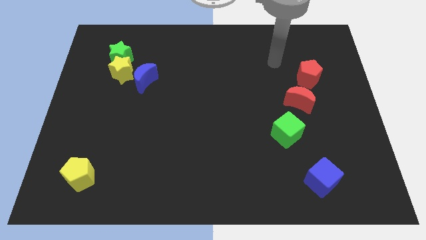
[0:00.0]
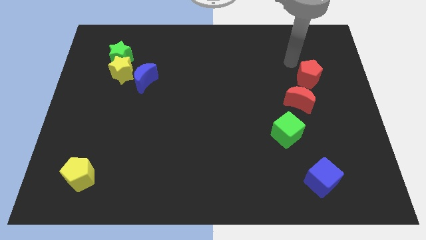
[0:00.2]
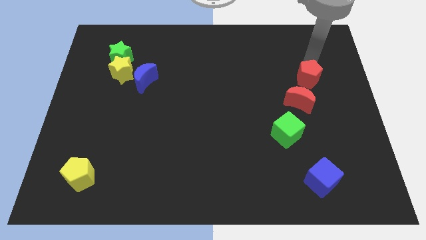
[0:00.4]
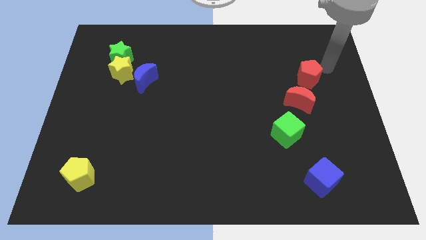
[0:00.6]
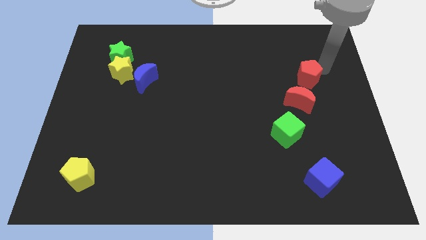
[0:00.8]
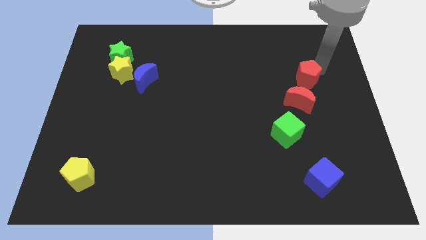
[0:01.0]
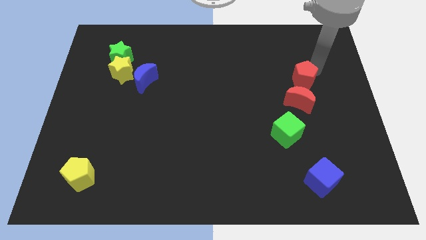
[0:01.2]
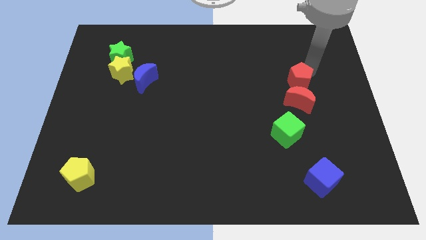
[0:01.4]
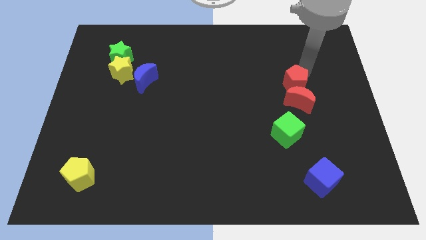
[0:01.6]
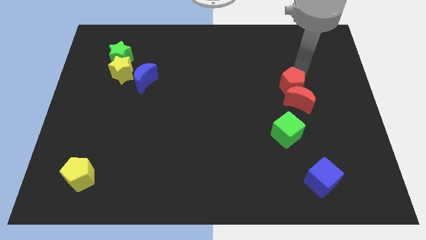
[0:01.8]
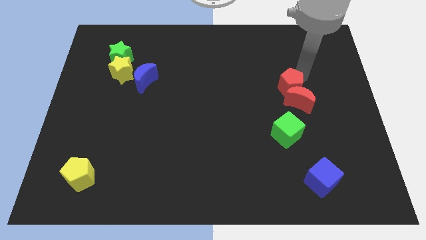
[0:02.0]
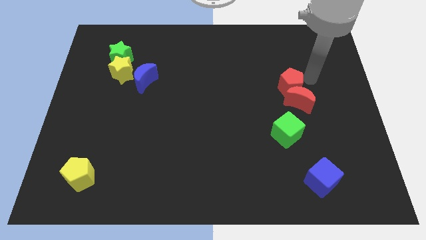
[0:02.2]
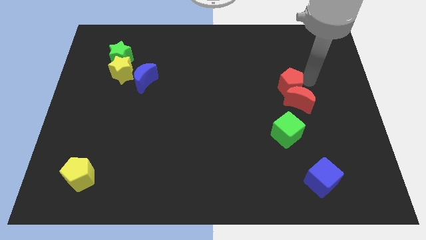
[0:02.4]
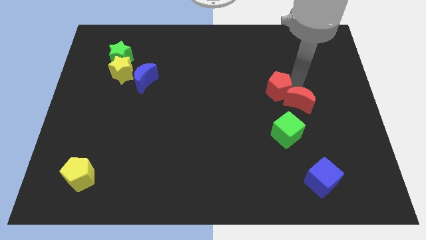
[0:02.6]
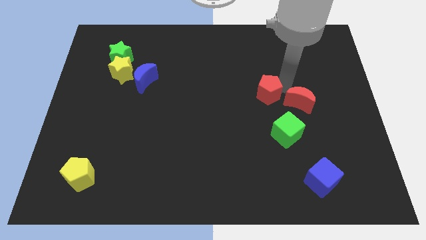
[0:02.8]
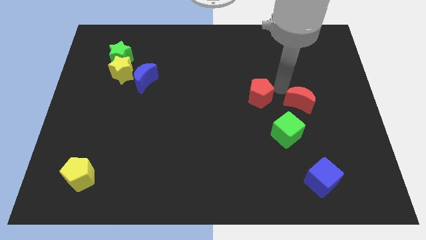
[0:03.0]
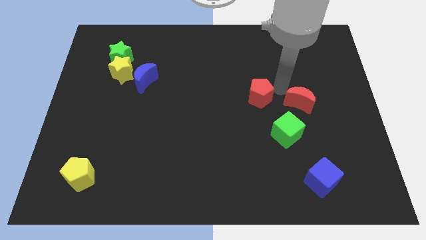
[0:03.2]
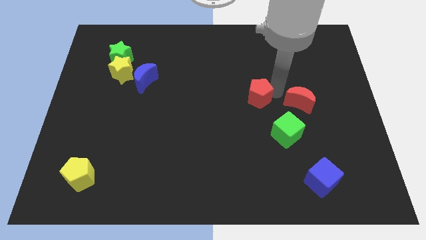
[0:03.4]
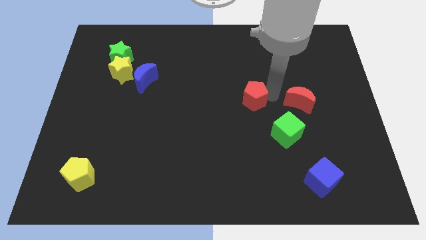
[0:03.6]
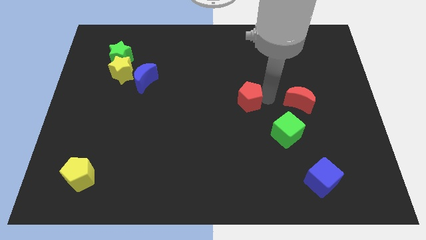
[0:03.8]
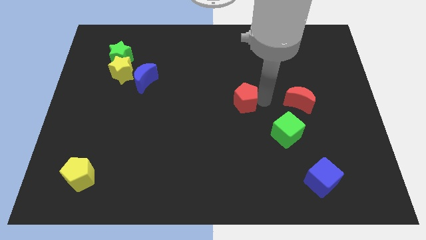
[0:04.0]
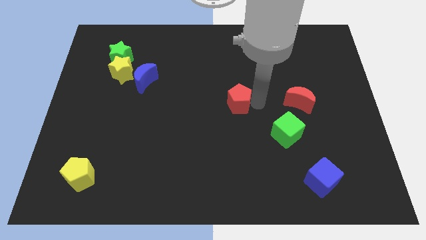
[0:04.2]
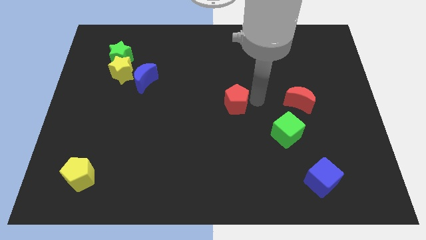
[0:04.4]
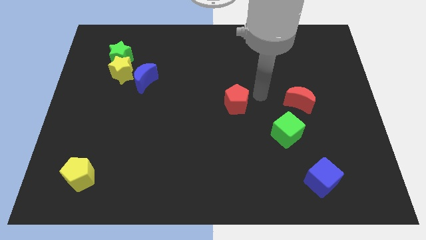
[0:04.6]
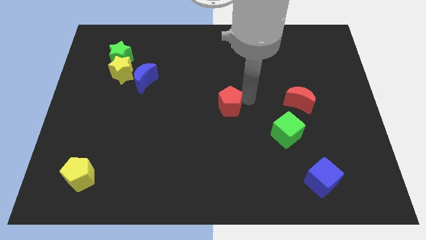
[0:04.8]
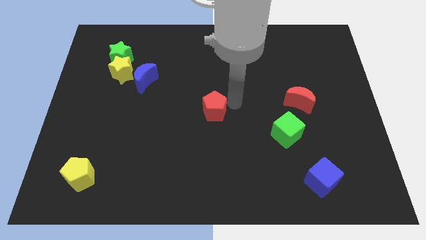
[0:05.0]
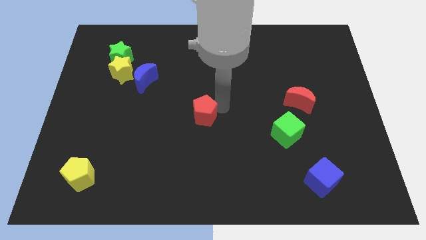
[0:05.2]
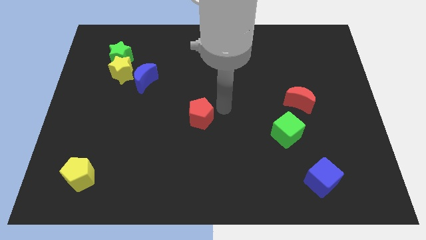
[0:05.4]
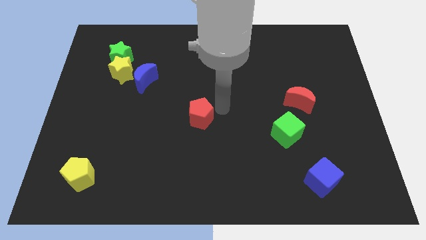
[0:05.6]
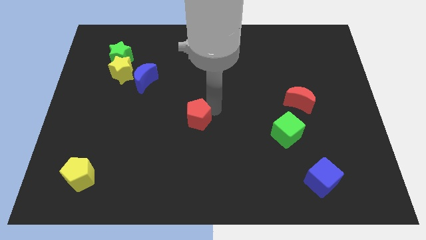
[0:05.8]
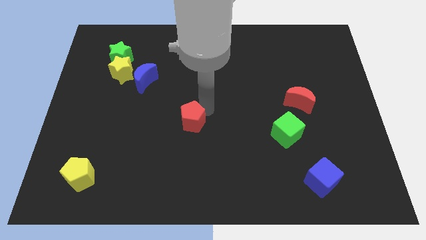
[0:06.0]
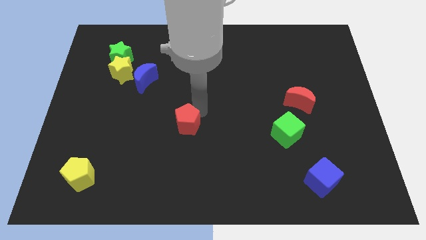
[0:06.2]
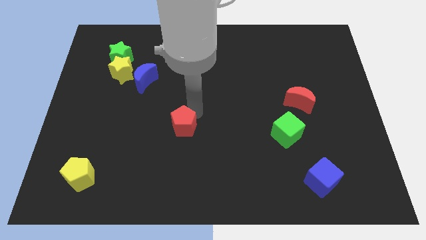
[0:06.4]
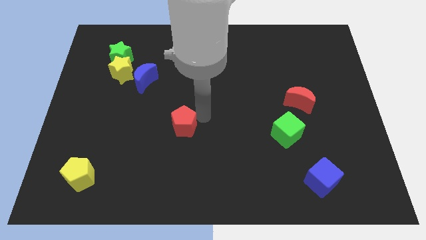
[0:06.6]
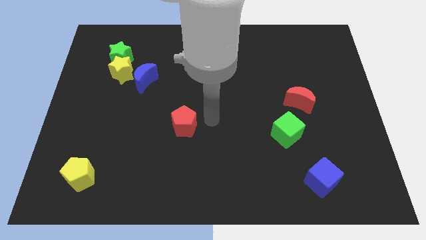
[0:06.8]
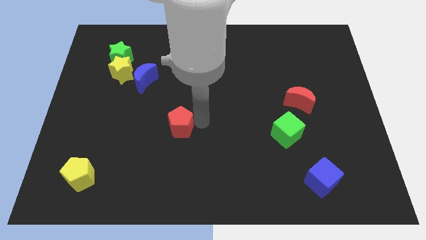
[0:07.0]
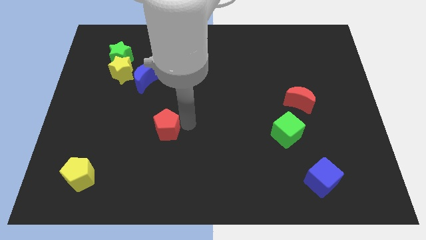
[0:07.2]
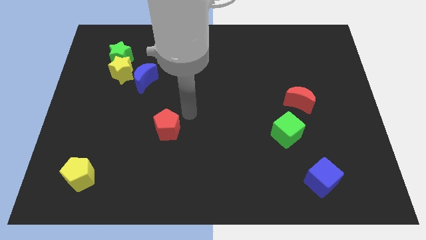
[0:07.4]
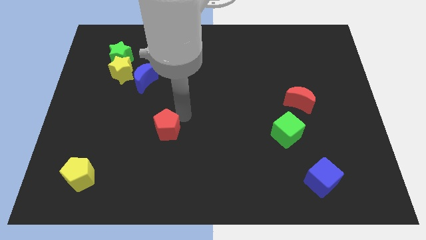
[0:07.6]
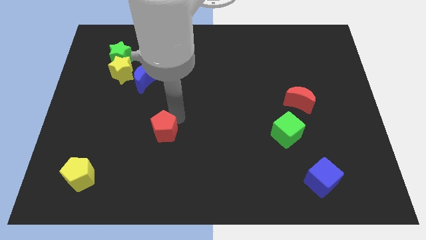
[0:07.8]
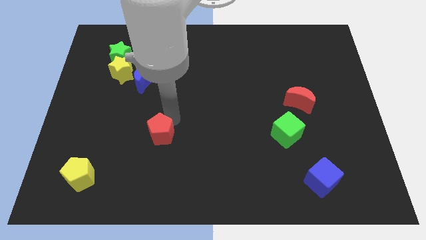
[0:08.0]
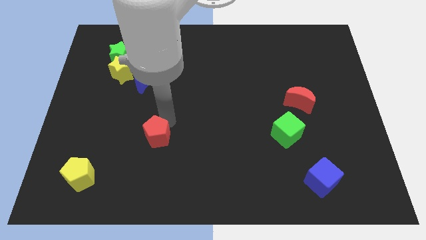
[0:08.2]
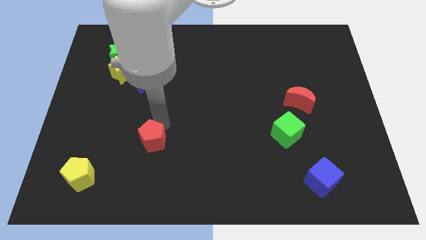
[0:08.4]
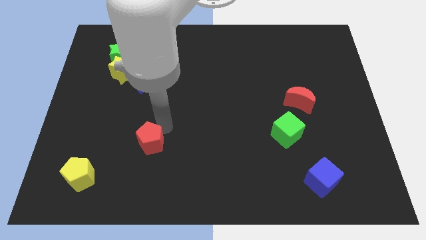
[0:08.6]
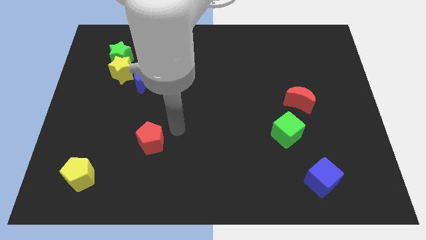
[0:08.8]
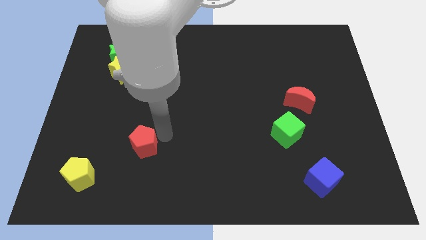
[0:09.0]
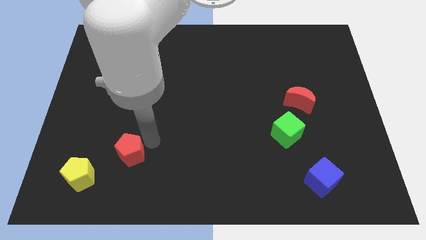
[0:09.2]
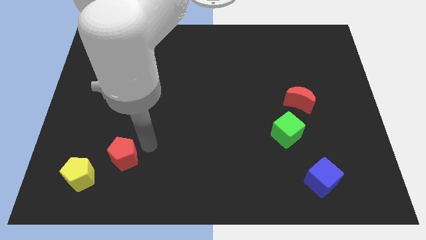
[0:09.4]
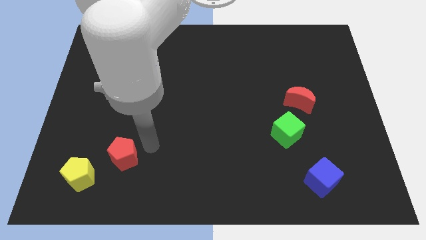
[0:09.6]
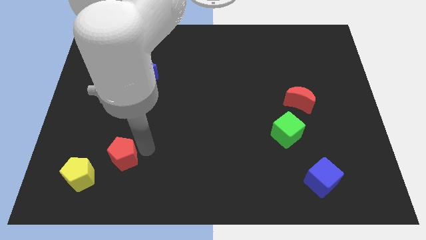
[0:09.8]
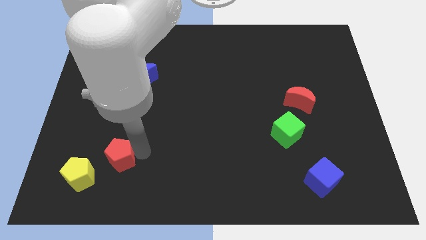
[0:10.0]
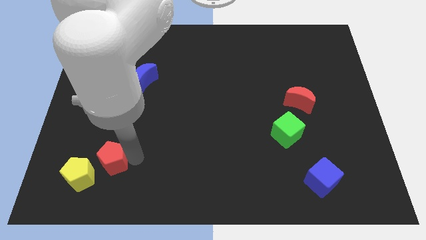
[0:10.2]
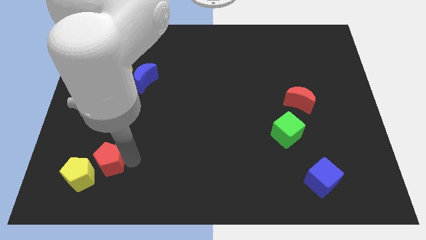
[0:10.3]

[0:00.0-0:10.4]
move the red pentagon to the yellow pentagon
